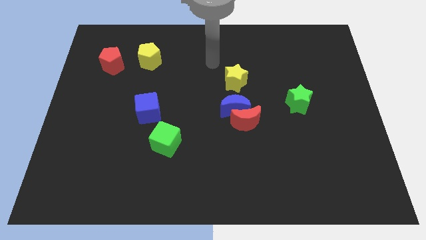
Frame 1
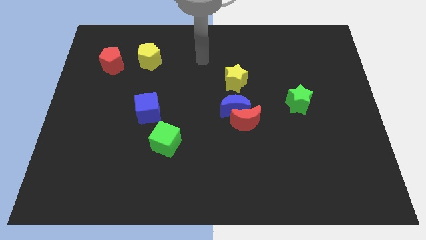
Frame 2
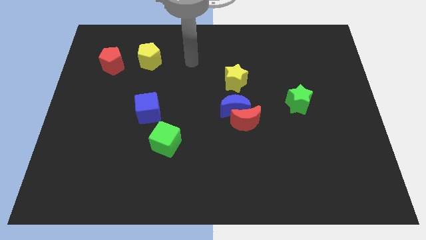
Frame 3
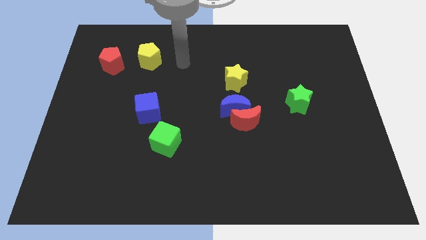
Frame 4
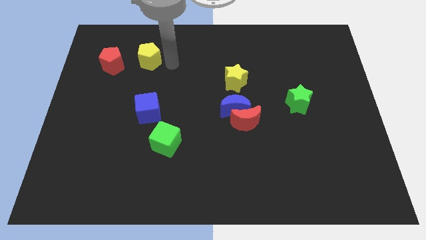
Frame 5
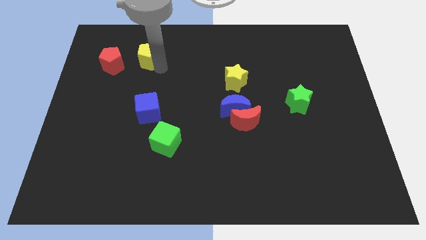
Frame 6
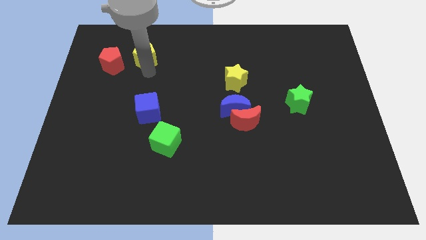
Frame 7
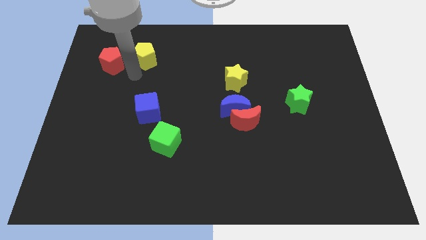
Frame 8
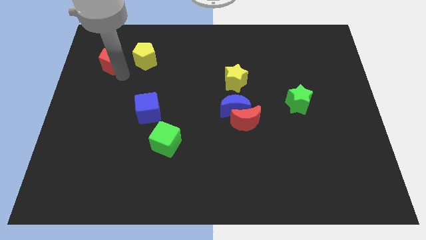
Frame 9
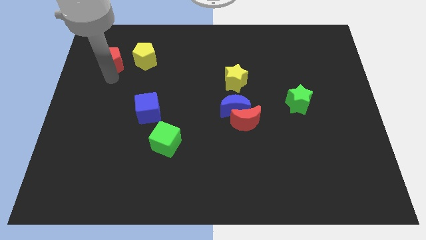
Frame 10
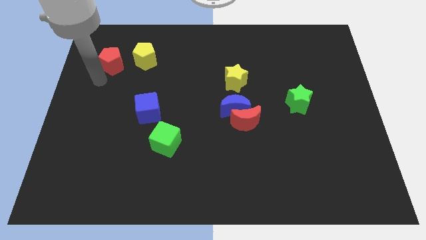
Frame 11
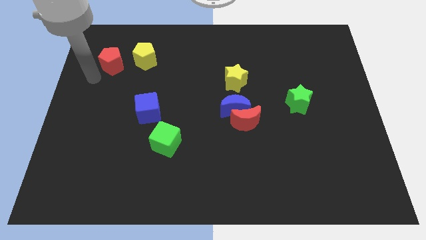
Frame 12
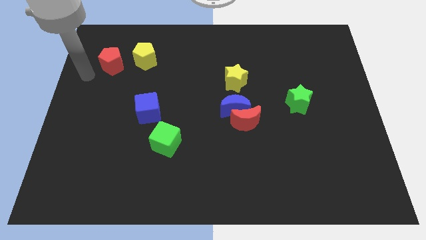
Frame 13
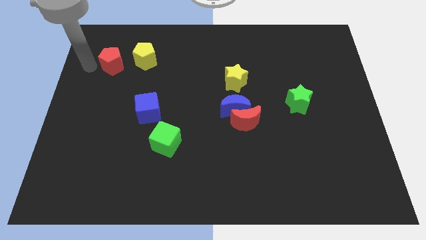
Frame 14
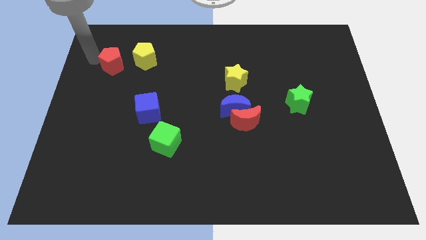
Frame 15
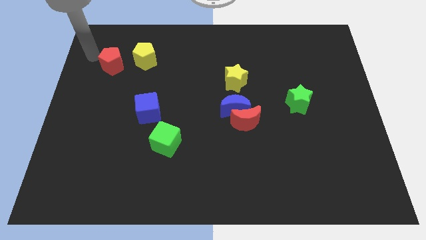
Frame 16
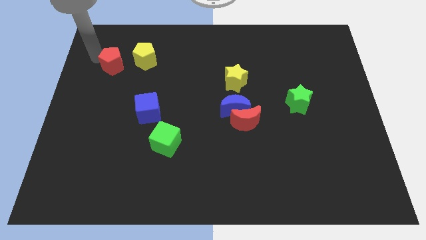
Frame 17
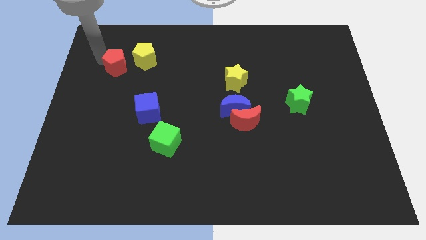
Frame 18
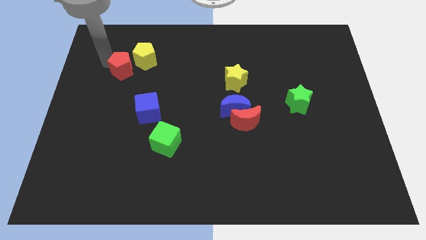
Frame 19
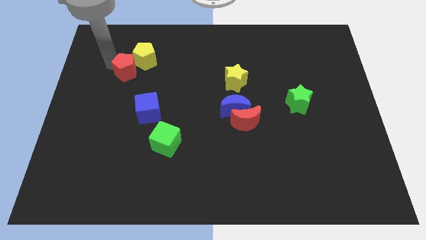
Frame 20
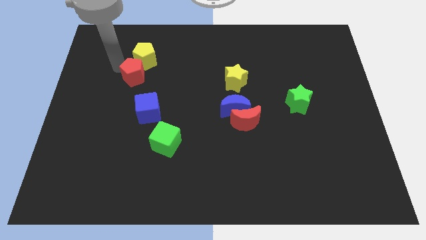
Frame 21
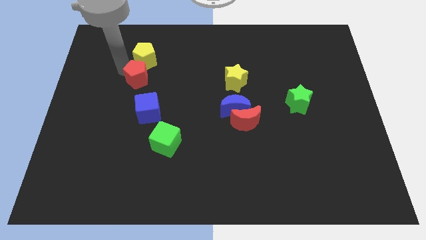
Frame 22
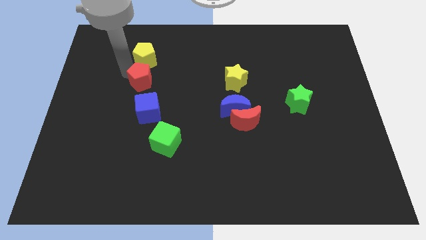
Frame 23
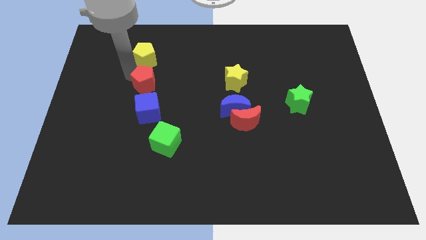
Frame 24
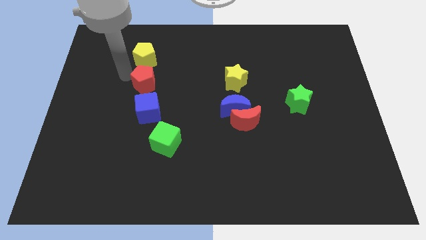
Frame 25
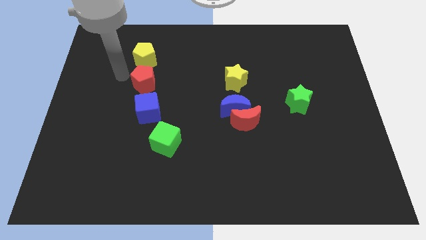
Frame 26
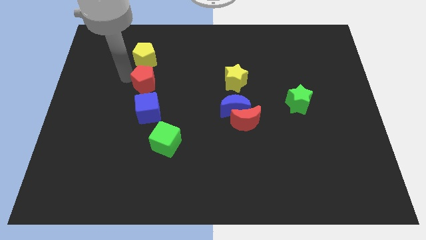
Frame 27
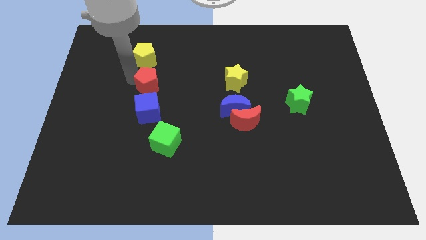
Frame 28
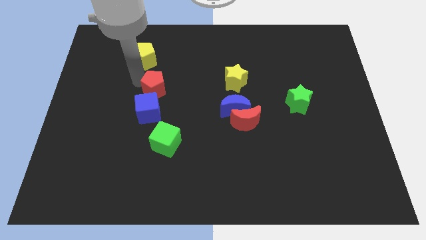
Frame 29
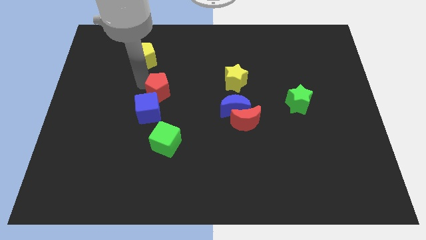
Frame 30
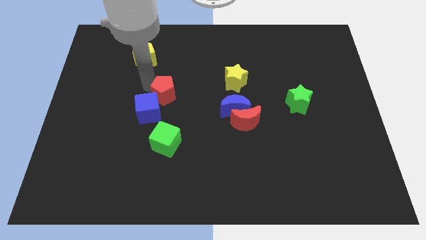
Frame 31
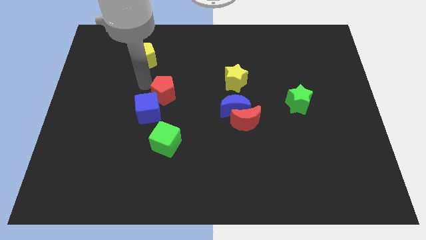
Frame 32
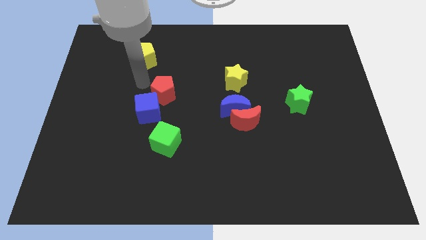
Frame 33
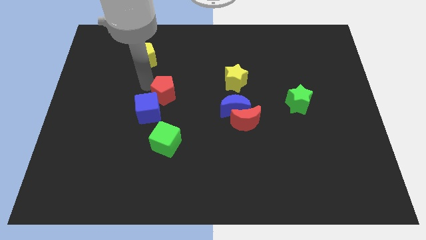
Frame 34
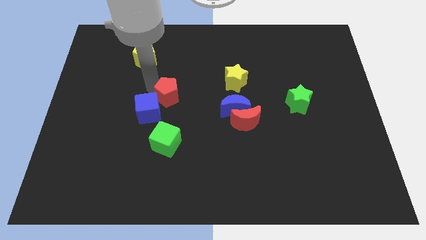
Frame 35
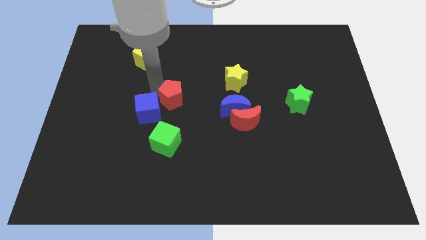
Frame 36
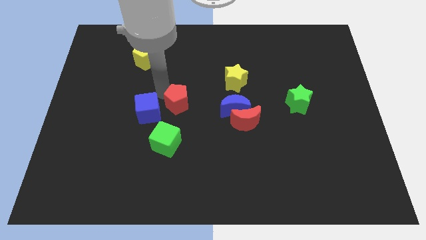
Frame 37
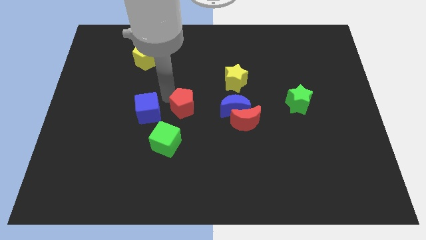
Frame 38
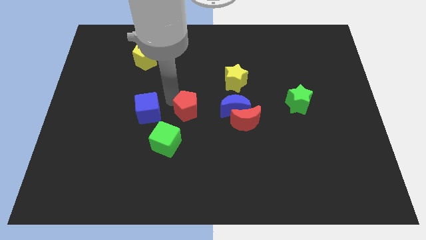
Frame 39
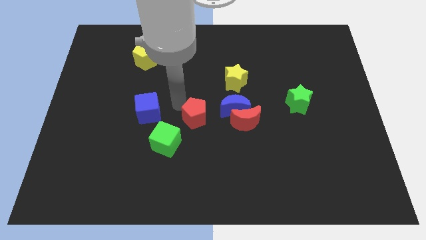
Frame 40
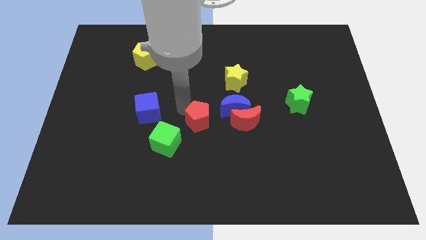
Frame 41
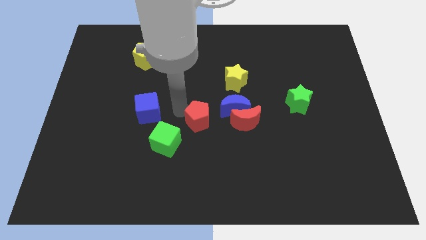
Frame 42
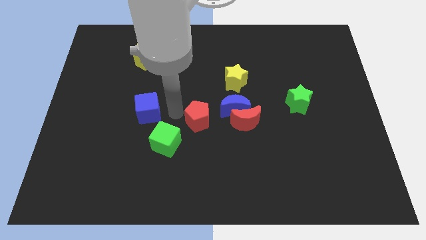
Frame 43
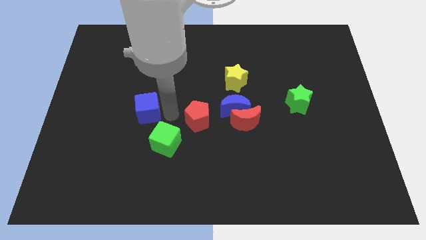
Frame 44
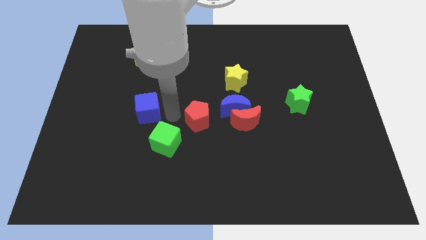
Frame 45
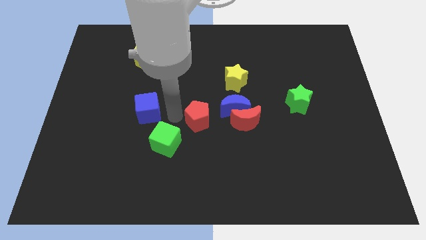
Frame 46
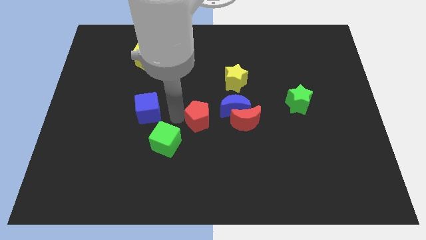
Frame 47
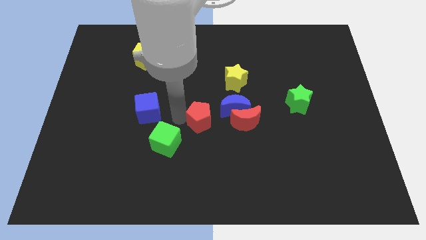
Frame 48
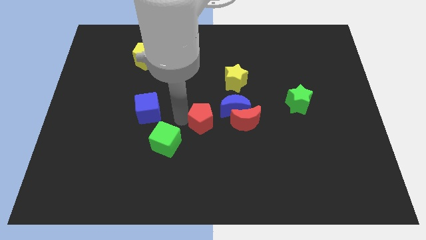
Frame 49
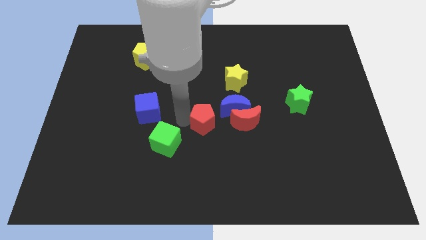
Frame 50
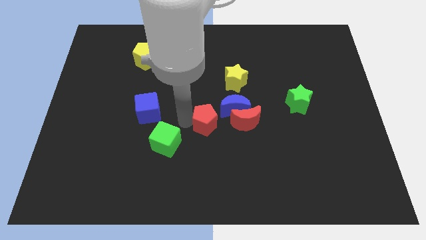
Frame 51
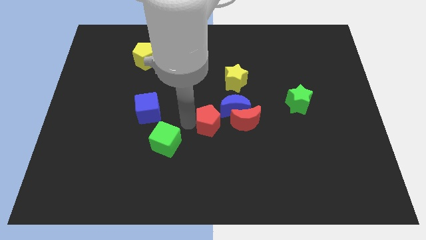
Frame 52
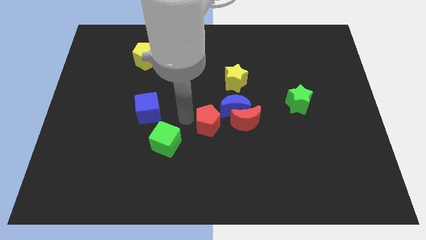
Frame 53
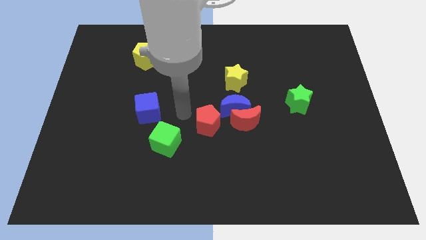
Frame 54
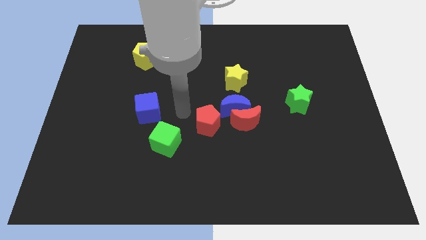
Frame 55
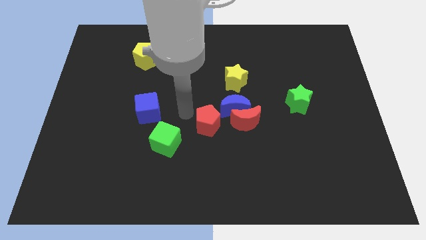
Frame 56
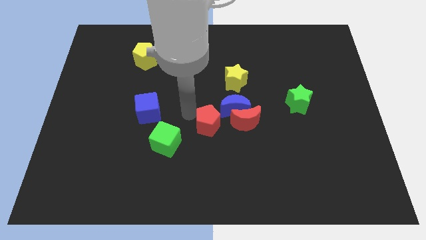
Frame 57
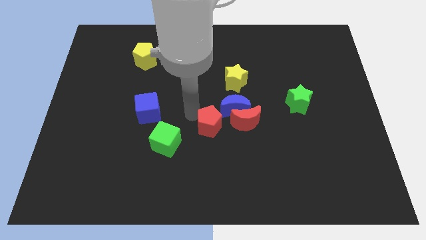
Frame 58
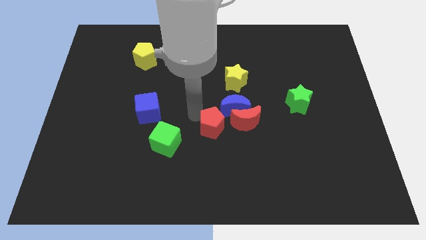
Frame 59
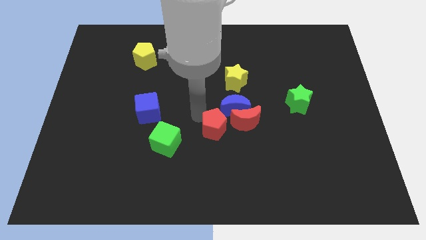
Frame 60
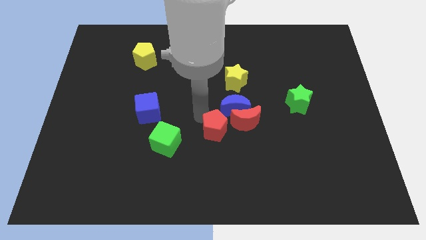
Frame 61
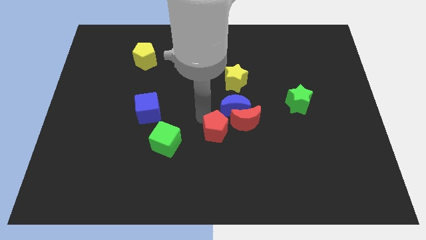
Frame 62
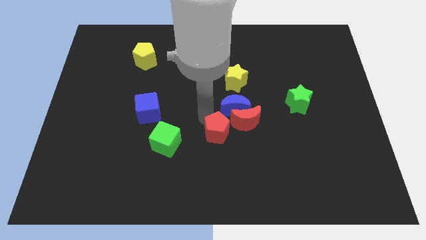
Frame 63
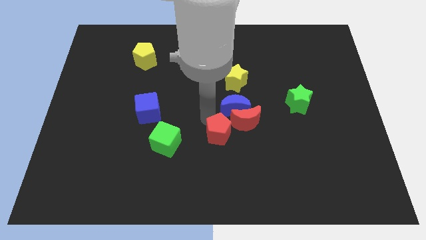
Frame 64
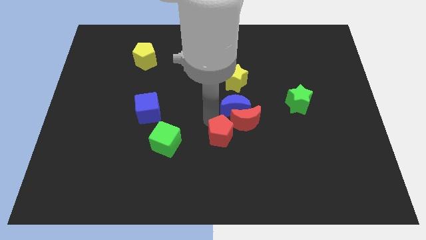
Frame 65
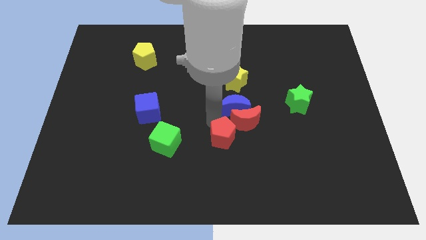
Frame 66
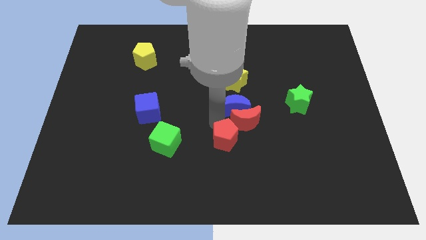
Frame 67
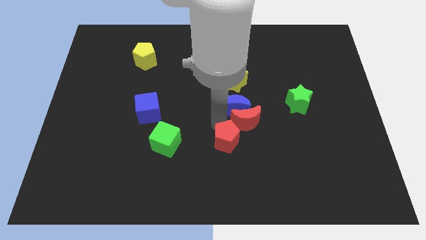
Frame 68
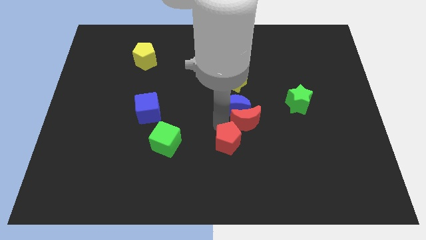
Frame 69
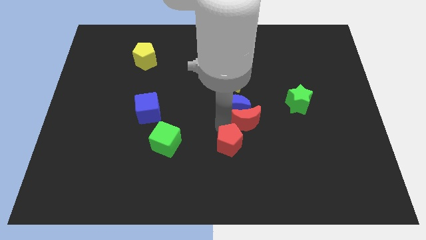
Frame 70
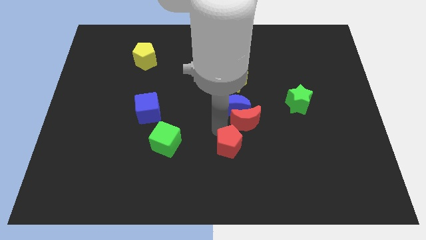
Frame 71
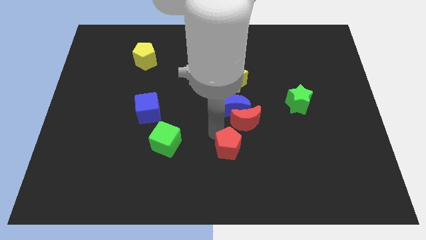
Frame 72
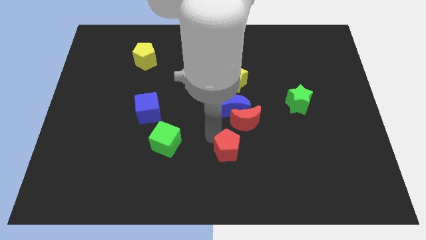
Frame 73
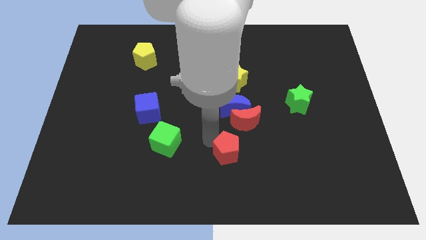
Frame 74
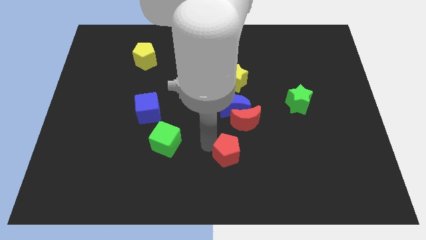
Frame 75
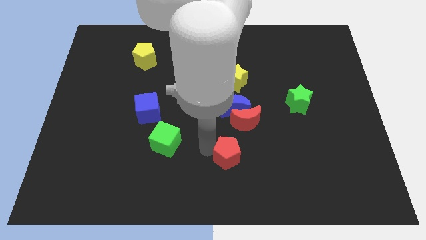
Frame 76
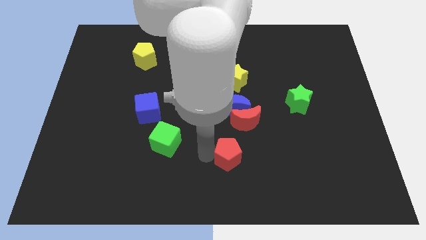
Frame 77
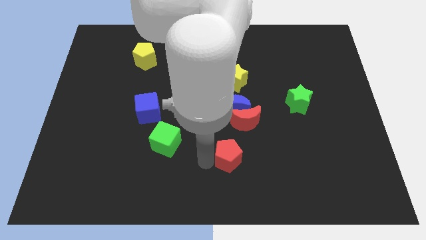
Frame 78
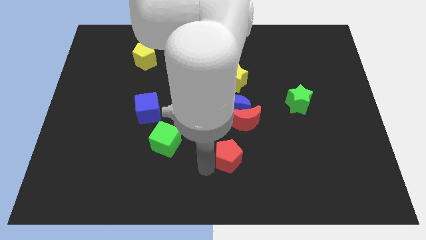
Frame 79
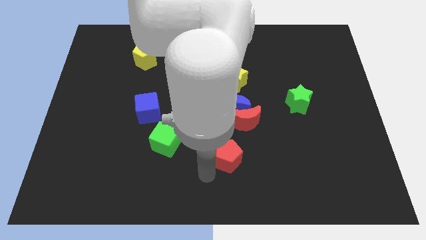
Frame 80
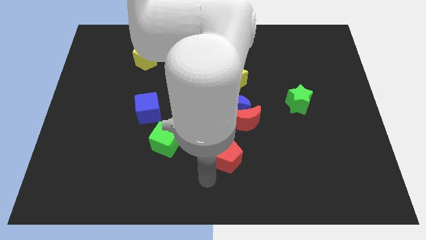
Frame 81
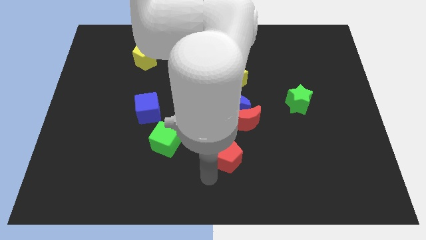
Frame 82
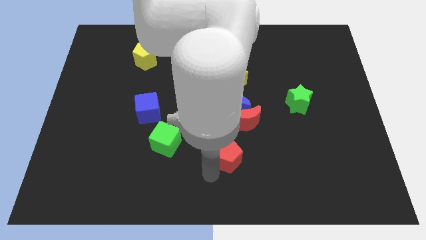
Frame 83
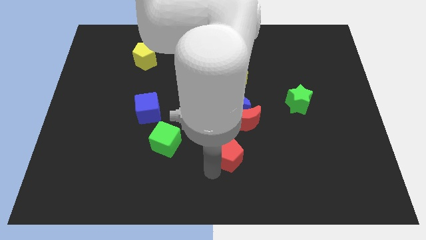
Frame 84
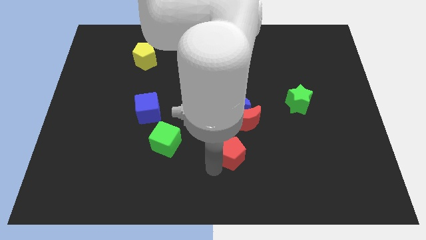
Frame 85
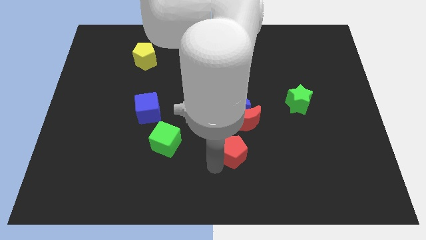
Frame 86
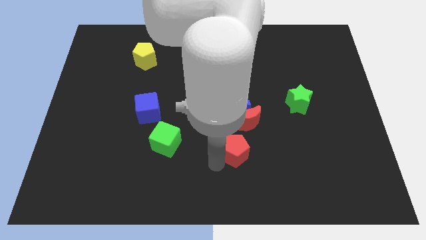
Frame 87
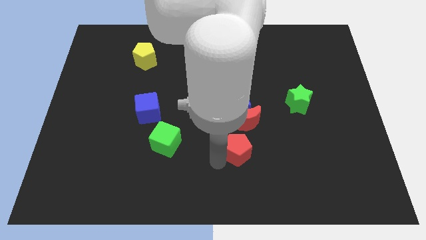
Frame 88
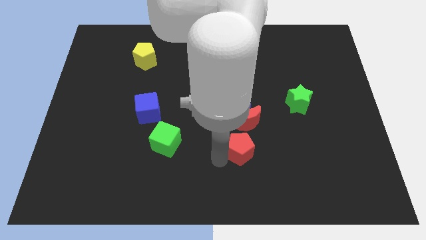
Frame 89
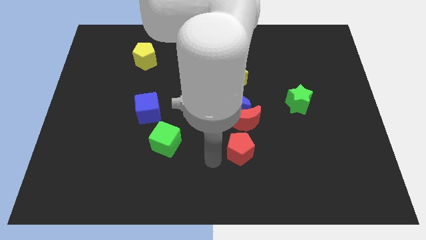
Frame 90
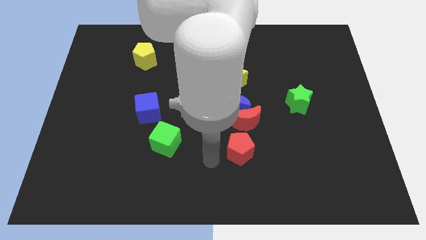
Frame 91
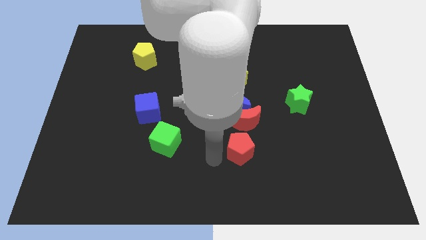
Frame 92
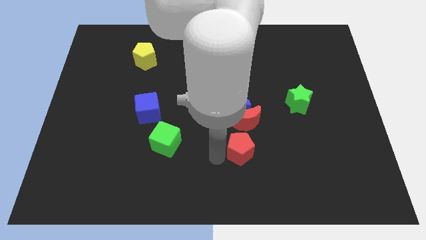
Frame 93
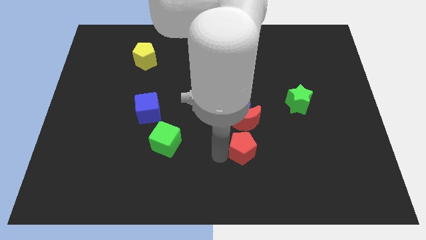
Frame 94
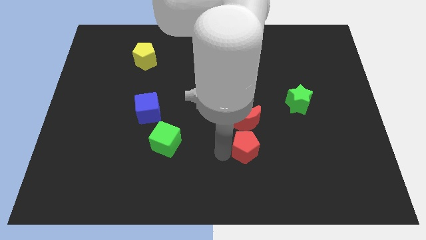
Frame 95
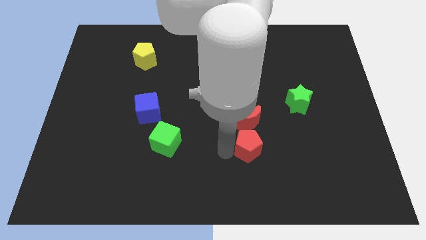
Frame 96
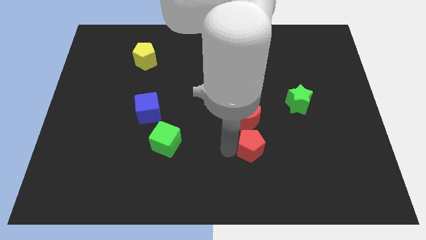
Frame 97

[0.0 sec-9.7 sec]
slide the red pentagon diagonally down and to the right of the red moon
